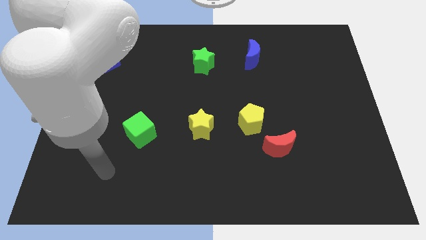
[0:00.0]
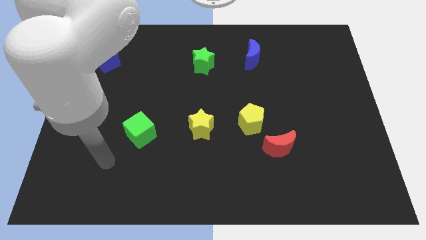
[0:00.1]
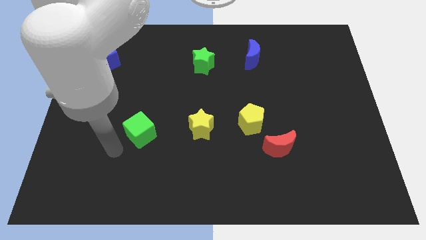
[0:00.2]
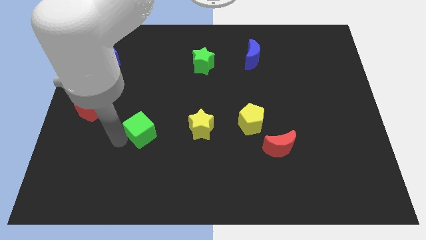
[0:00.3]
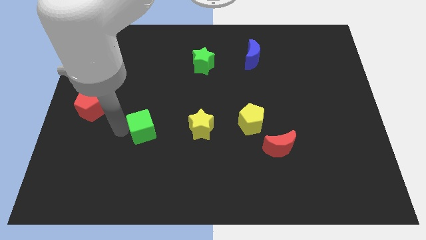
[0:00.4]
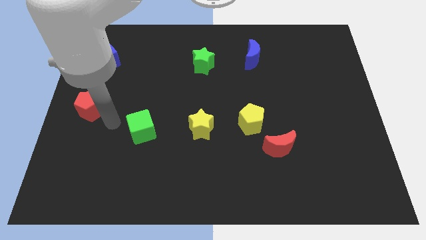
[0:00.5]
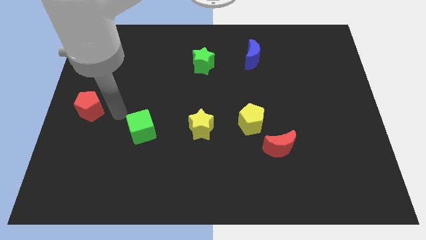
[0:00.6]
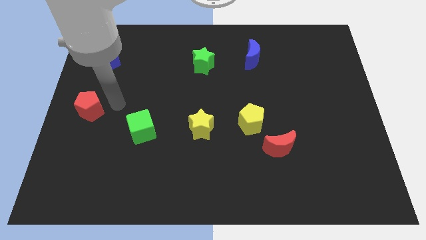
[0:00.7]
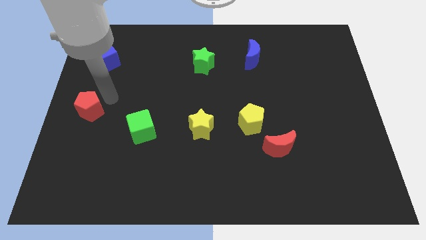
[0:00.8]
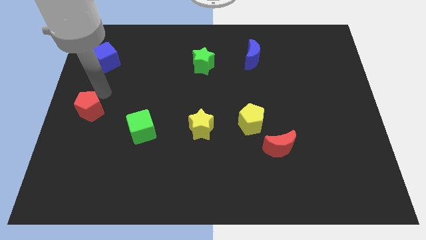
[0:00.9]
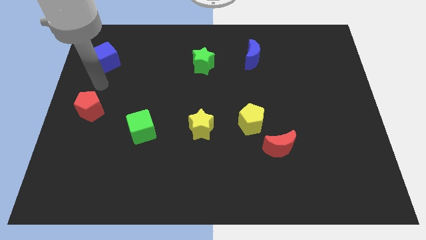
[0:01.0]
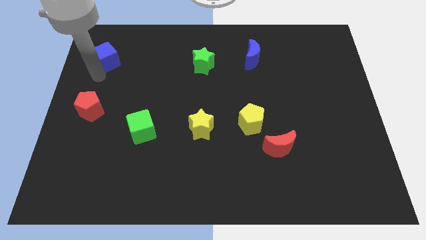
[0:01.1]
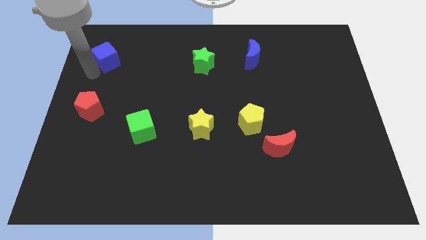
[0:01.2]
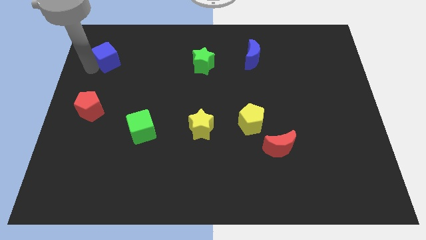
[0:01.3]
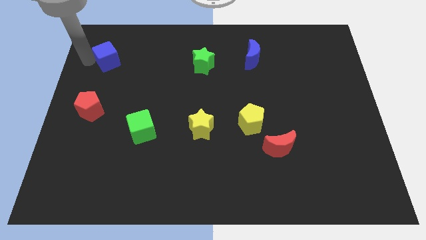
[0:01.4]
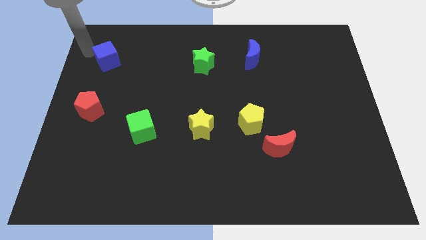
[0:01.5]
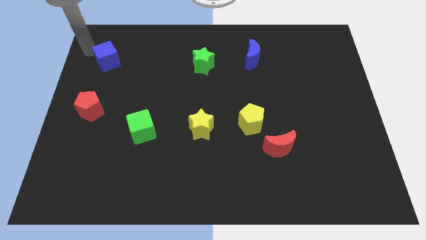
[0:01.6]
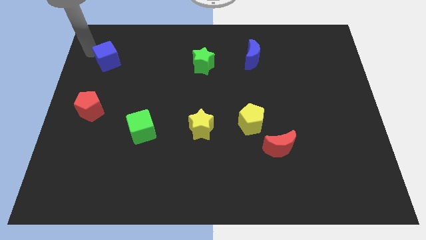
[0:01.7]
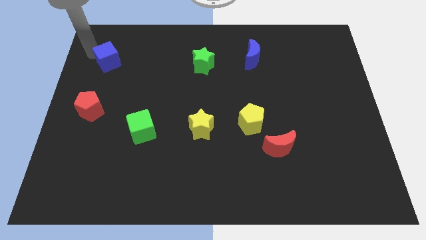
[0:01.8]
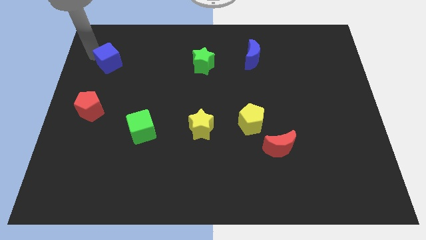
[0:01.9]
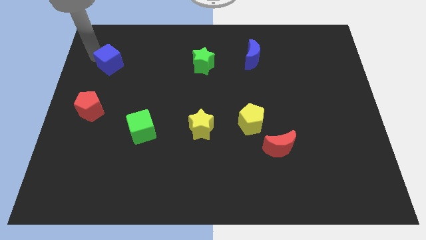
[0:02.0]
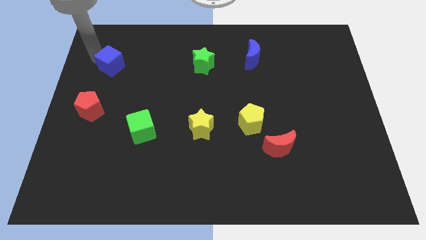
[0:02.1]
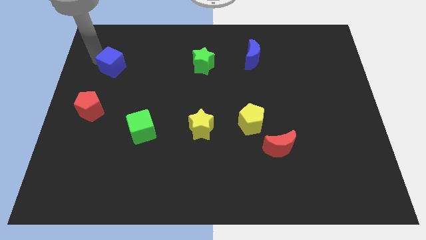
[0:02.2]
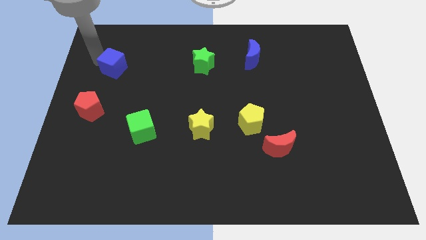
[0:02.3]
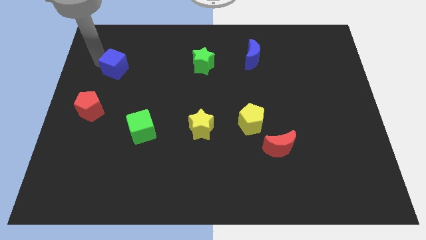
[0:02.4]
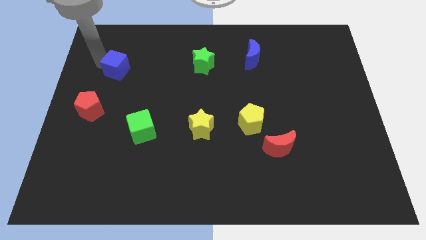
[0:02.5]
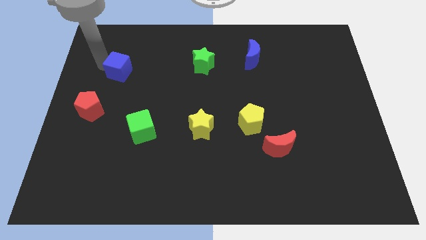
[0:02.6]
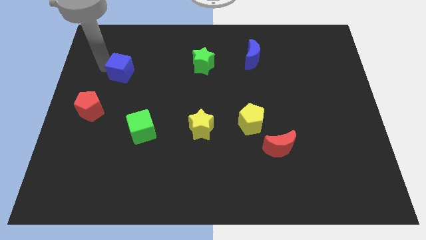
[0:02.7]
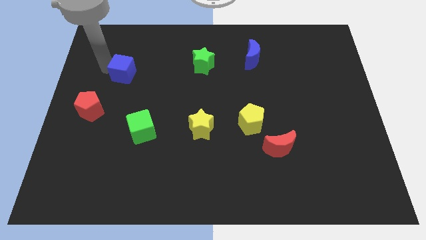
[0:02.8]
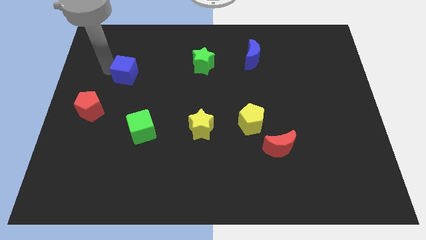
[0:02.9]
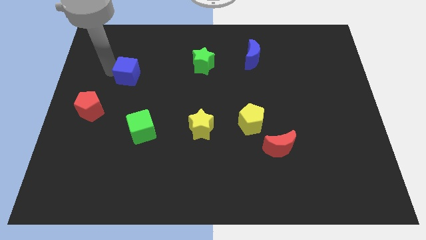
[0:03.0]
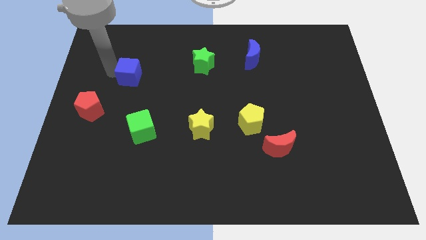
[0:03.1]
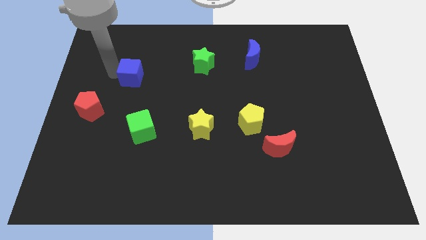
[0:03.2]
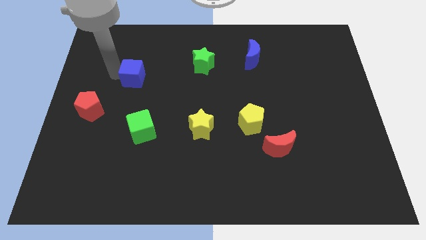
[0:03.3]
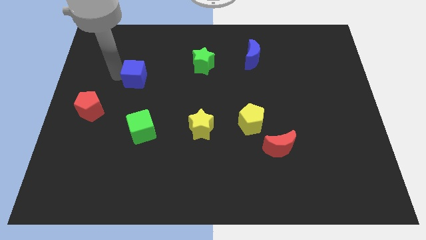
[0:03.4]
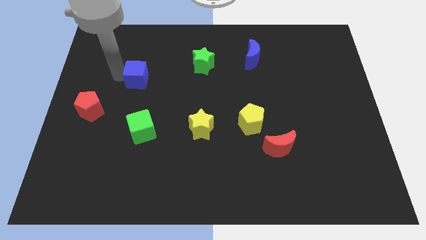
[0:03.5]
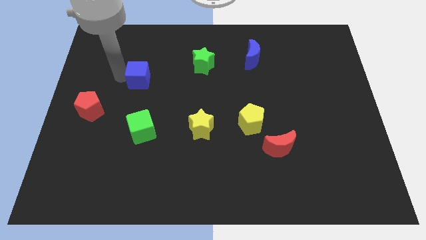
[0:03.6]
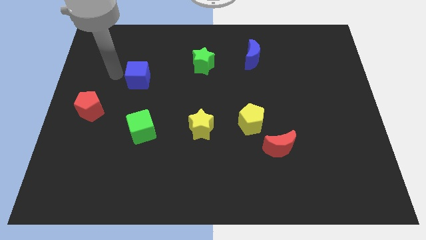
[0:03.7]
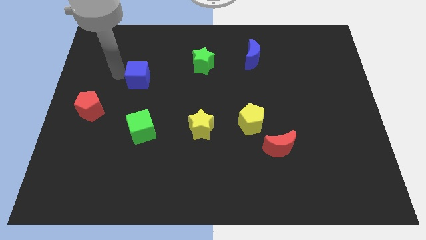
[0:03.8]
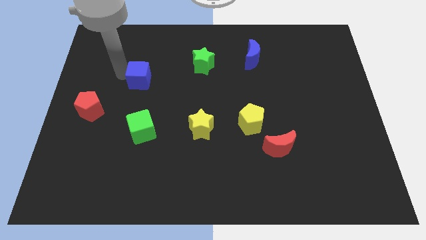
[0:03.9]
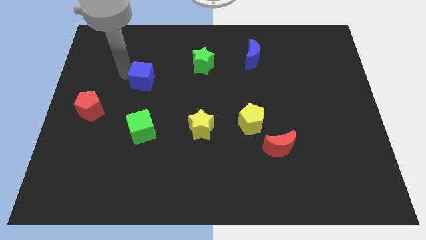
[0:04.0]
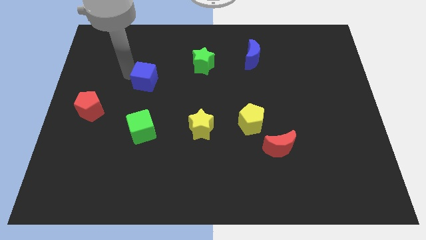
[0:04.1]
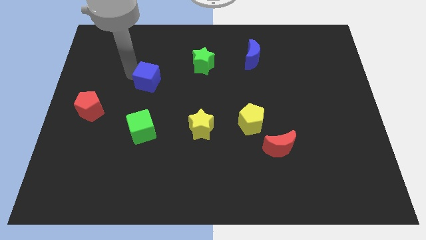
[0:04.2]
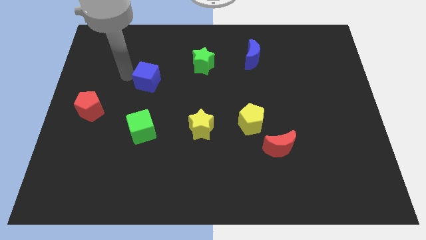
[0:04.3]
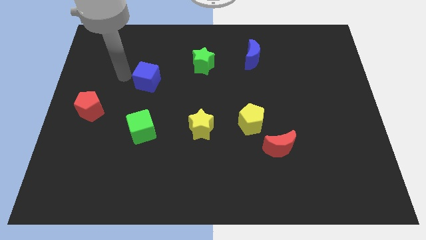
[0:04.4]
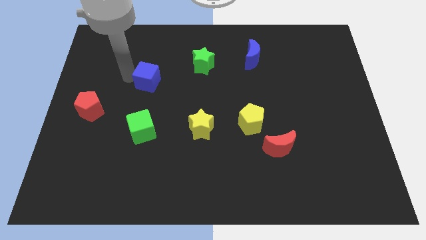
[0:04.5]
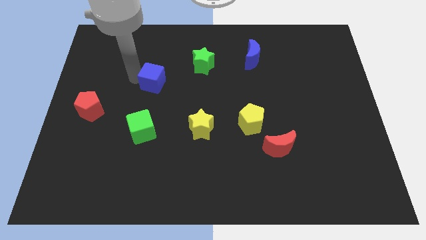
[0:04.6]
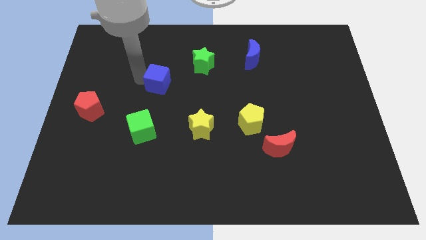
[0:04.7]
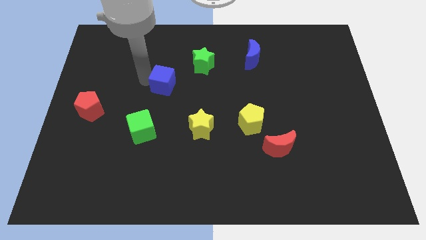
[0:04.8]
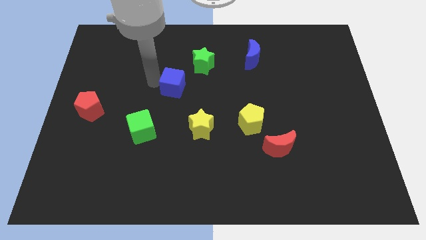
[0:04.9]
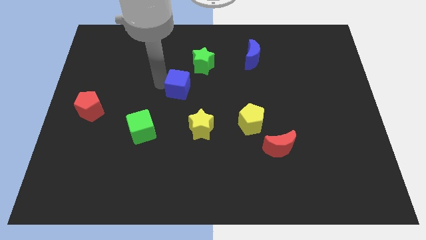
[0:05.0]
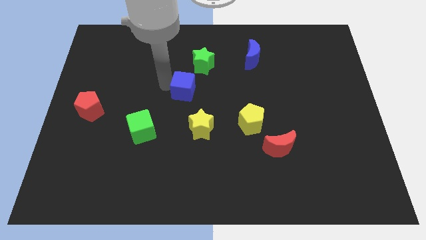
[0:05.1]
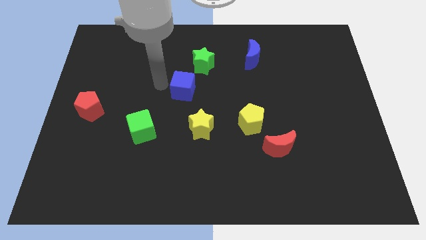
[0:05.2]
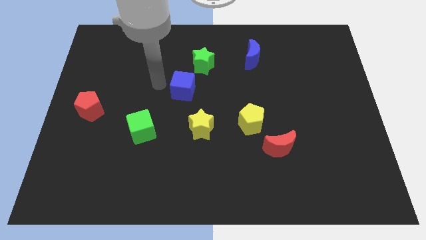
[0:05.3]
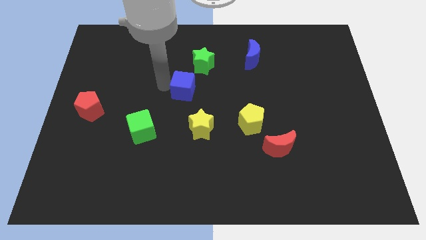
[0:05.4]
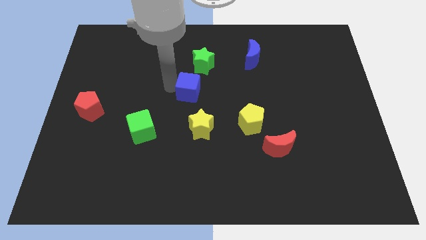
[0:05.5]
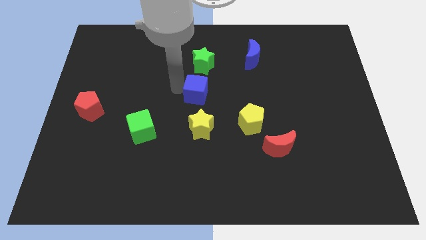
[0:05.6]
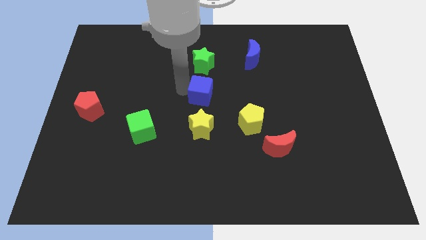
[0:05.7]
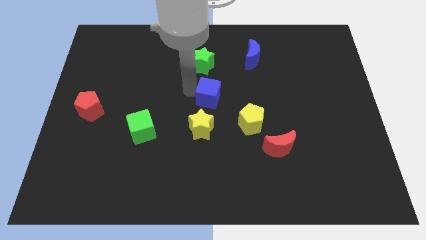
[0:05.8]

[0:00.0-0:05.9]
push the blue cube to the top left side of the yellow pentagon

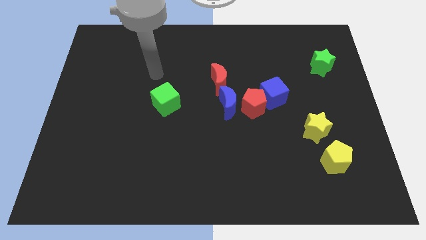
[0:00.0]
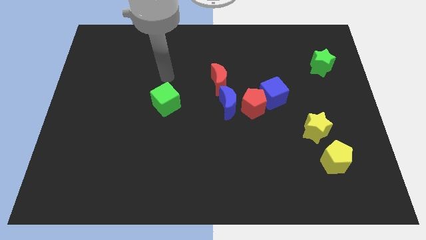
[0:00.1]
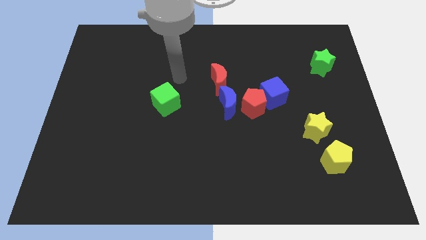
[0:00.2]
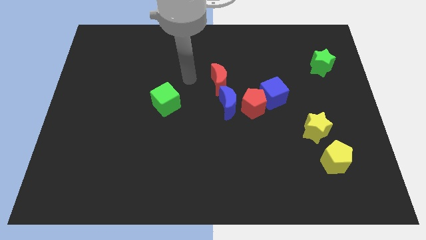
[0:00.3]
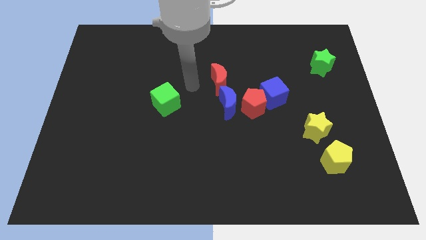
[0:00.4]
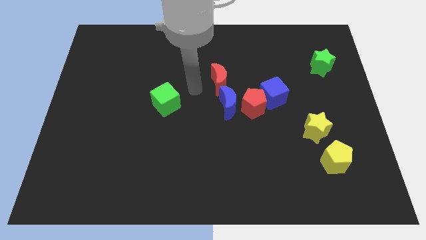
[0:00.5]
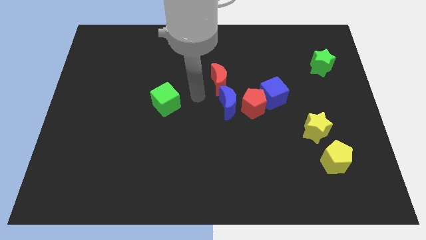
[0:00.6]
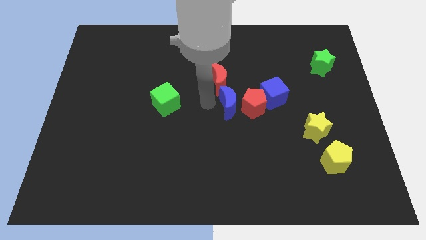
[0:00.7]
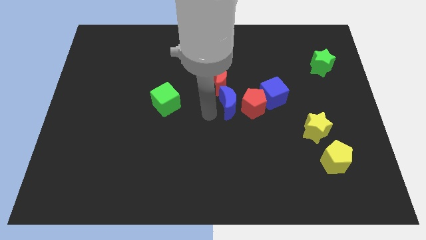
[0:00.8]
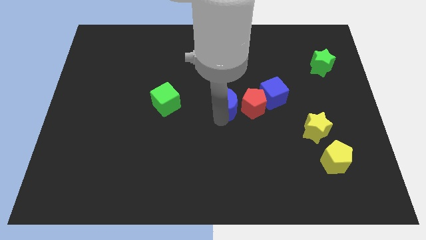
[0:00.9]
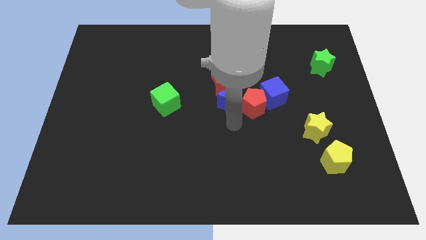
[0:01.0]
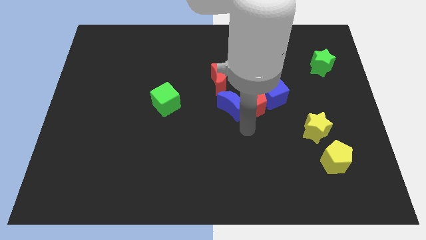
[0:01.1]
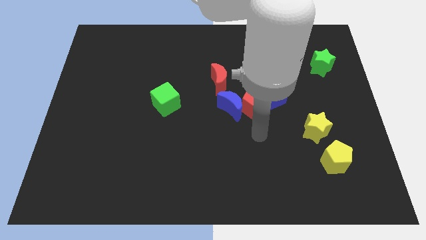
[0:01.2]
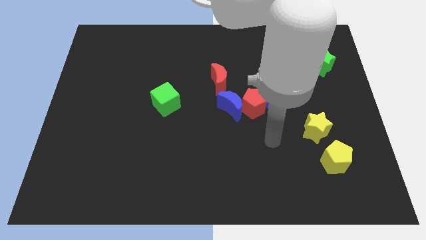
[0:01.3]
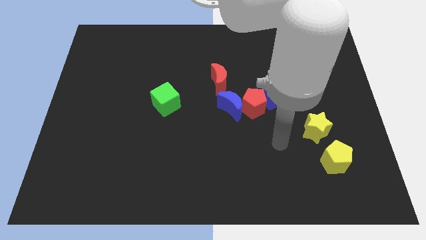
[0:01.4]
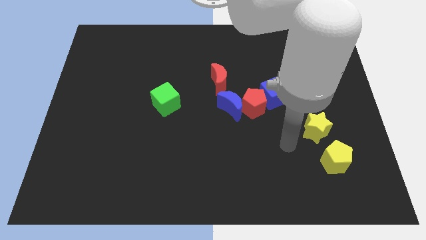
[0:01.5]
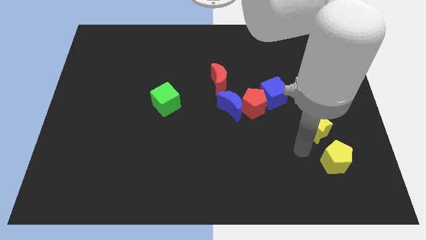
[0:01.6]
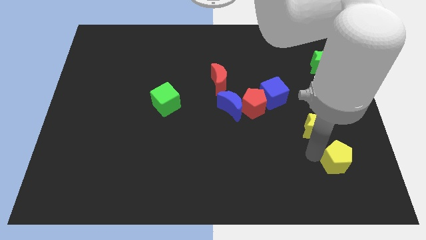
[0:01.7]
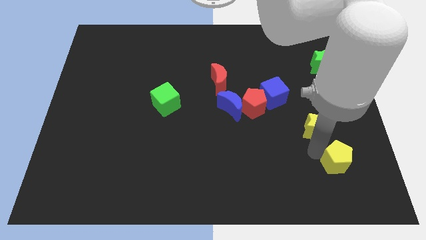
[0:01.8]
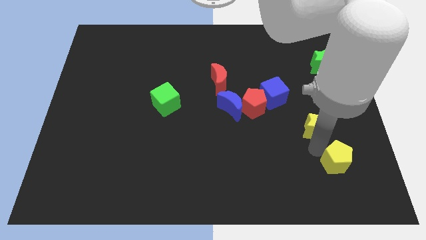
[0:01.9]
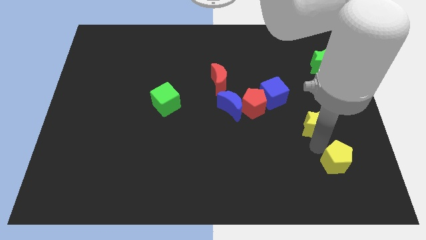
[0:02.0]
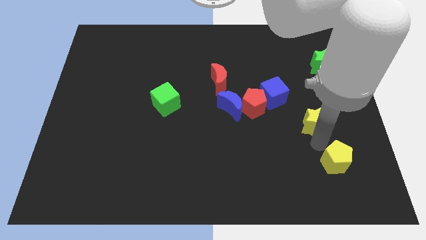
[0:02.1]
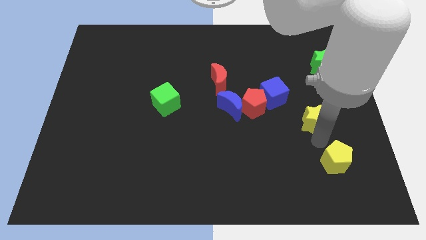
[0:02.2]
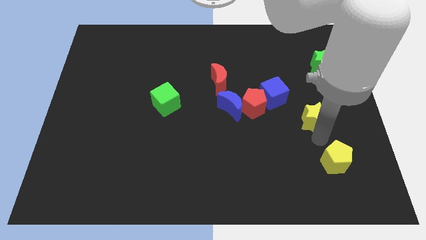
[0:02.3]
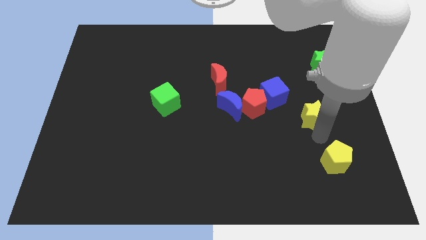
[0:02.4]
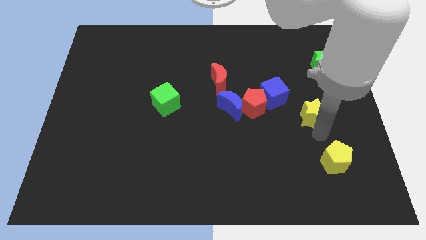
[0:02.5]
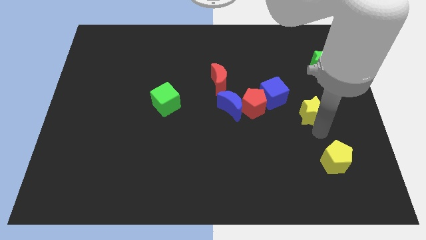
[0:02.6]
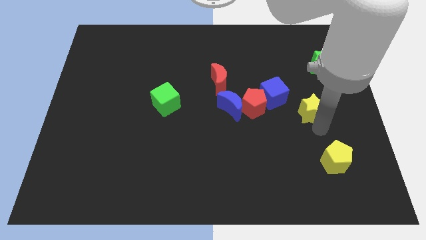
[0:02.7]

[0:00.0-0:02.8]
move the yellow star just right of the blue cube
